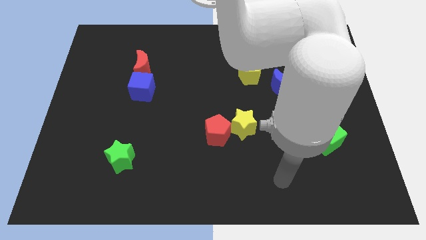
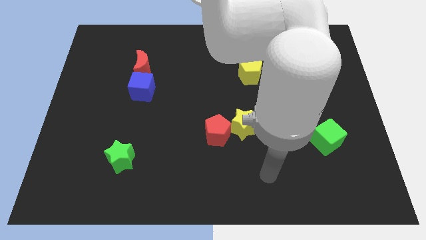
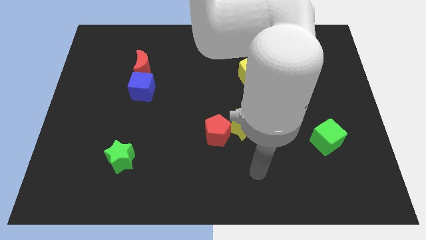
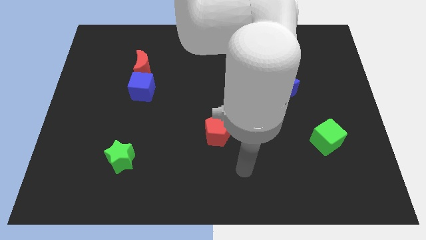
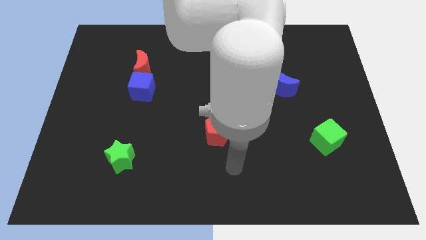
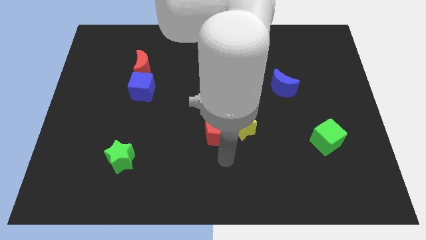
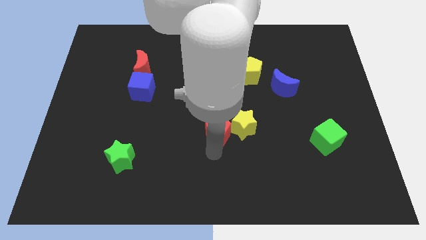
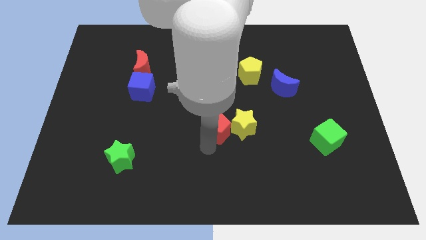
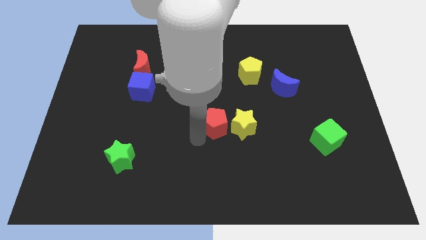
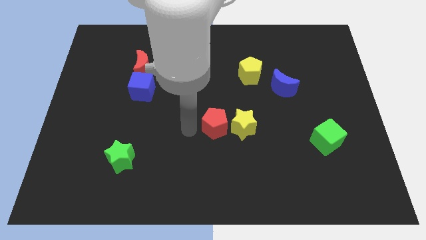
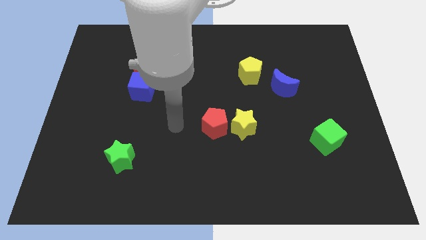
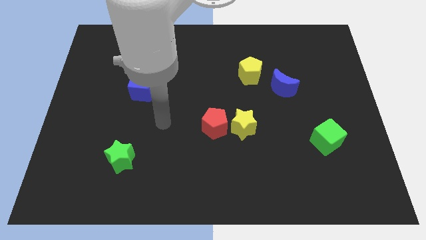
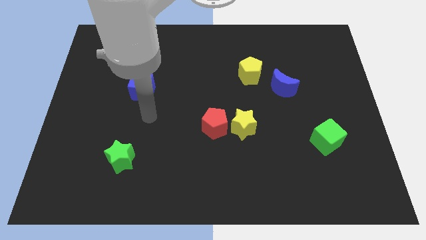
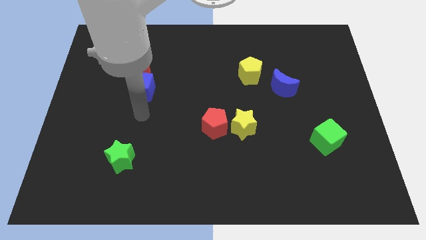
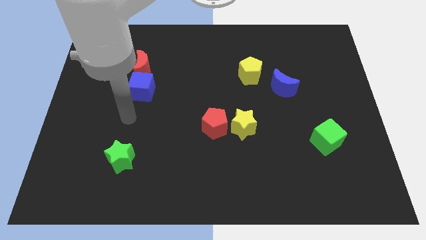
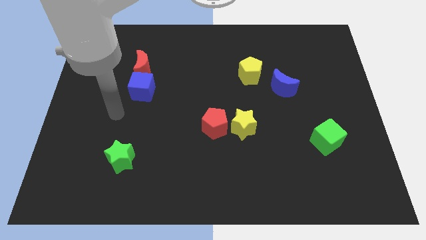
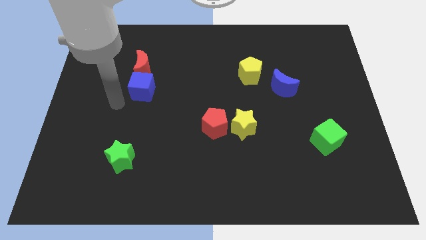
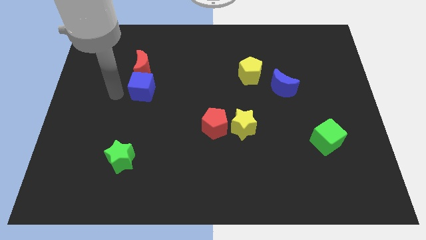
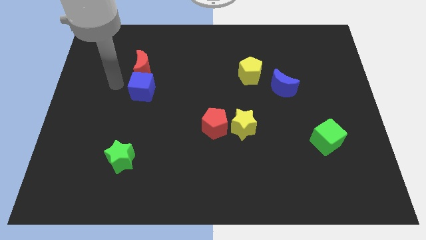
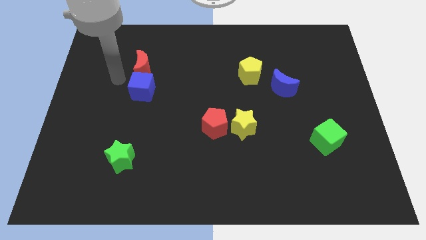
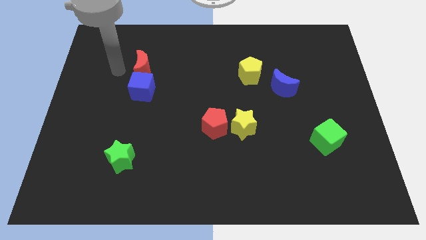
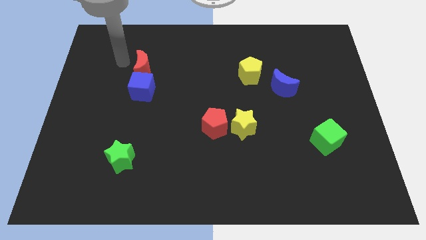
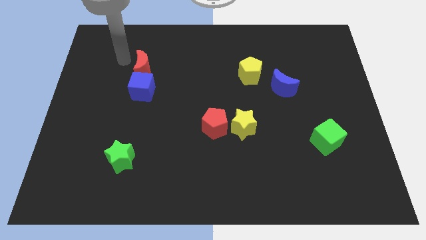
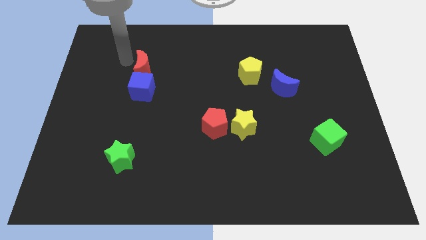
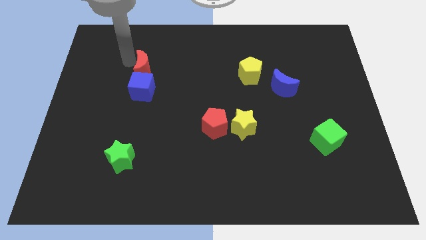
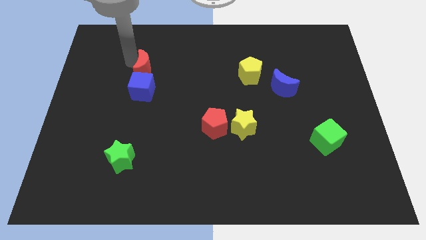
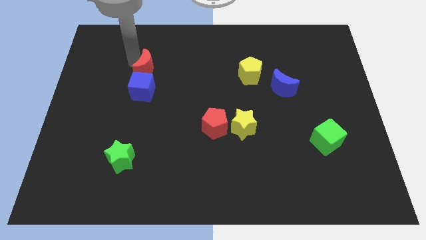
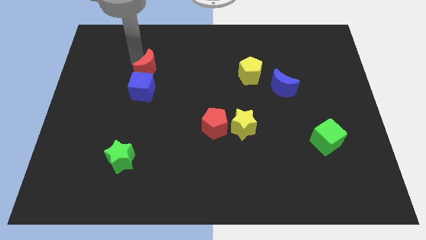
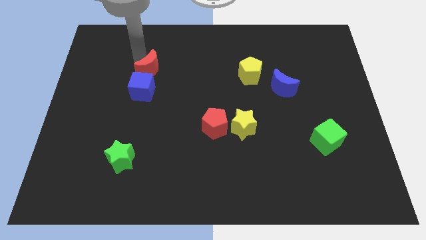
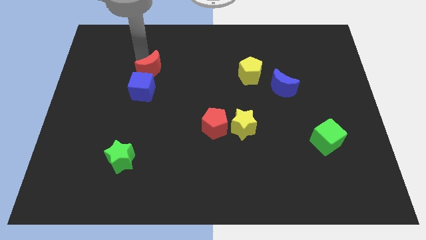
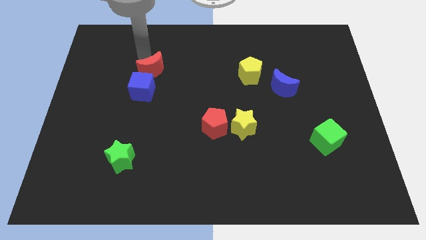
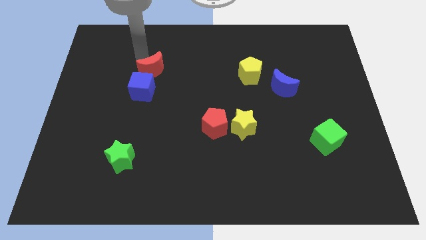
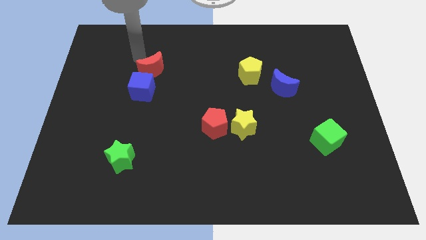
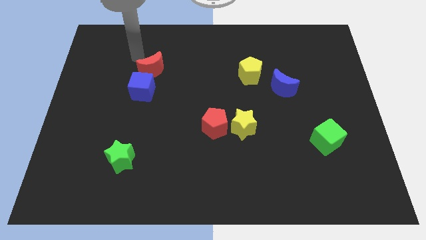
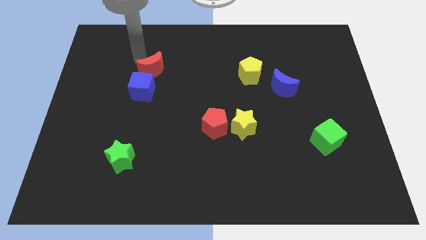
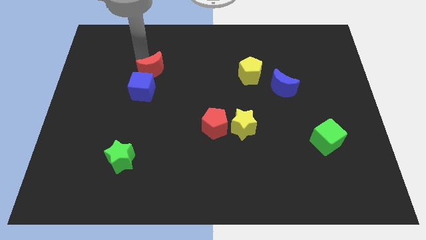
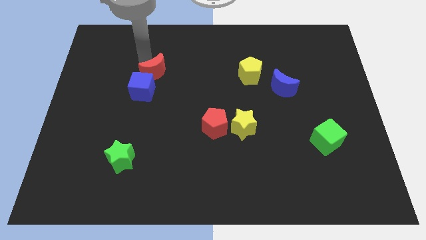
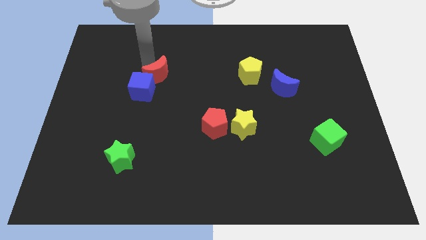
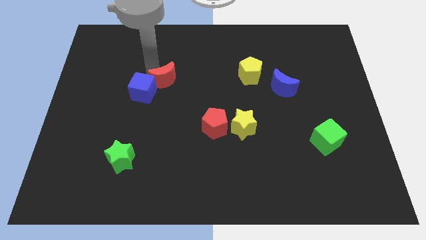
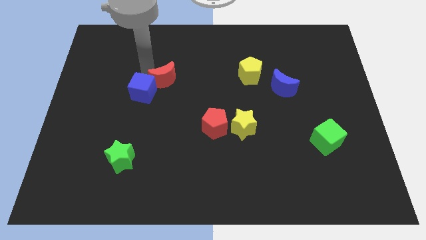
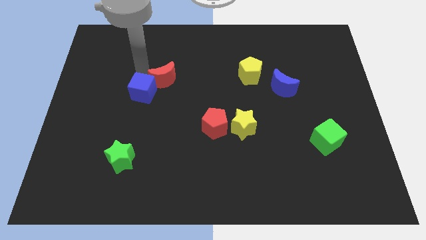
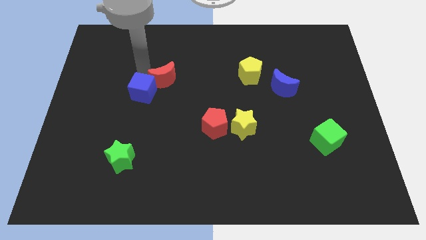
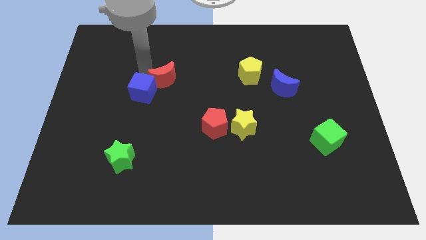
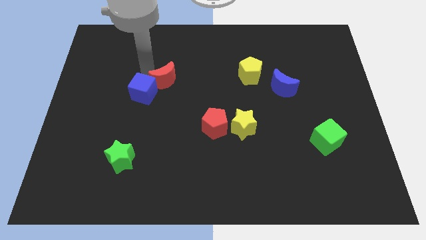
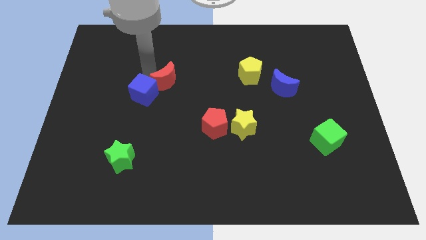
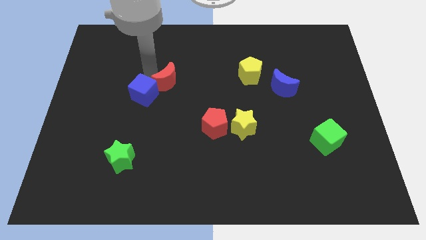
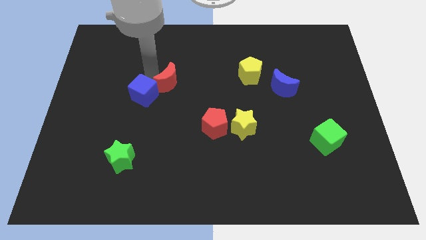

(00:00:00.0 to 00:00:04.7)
move the red moon to the middle of the board

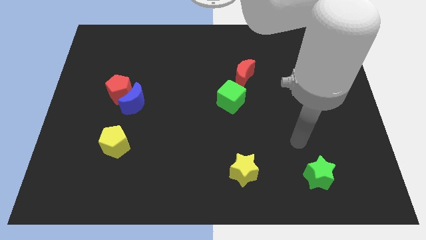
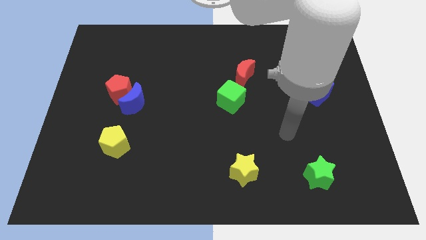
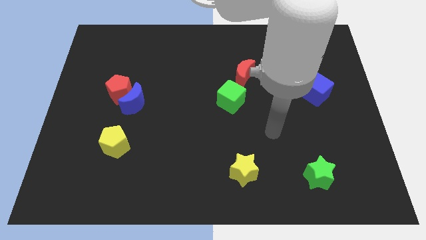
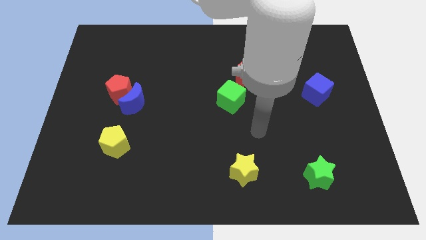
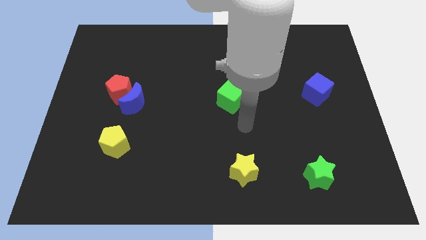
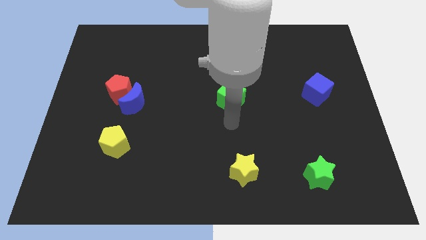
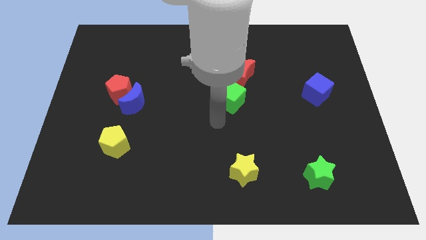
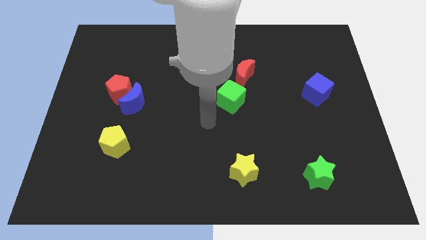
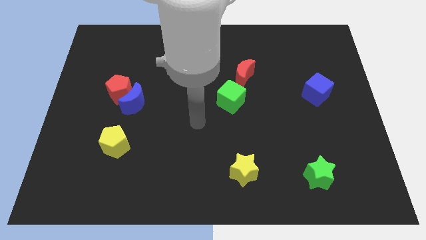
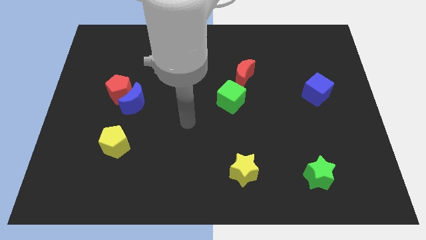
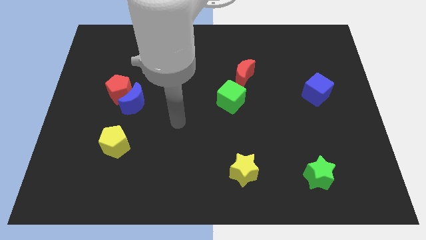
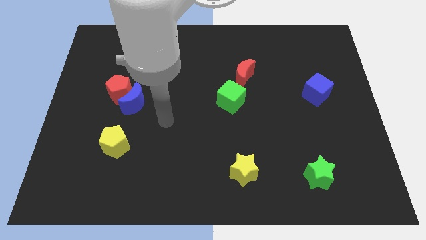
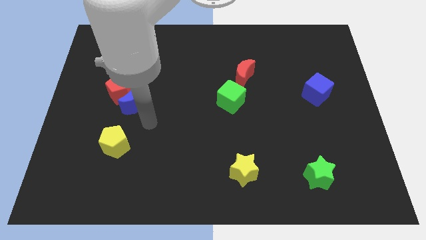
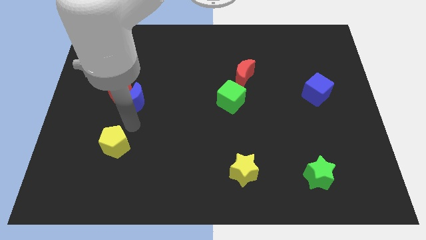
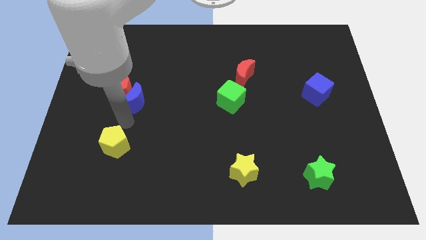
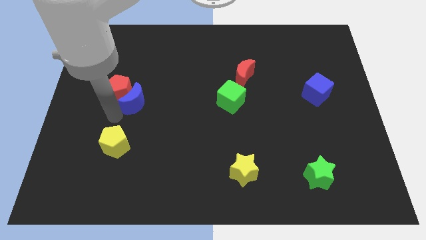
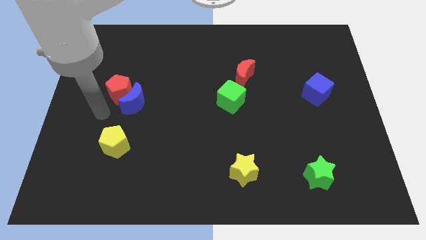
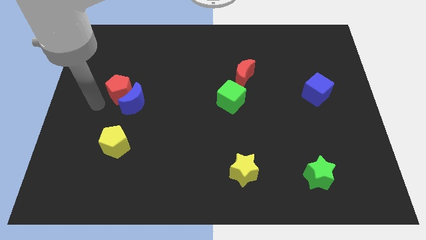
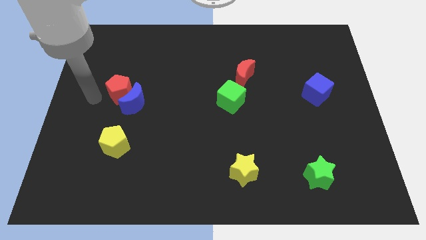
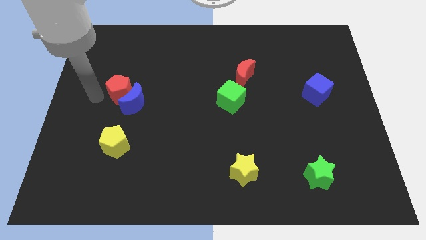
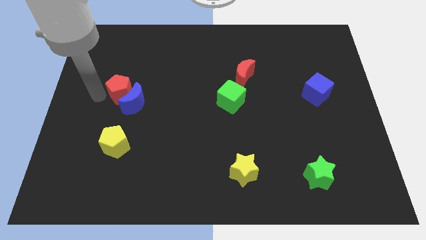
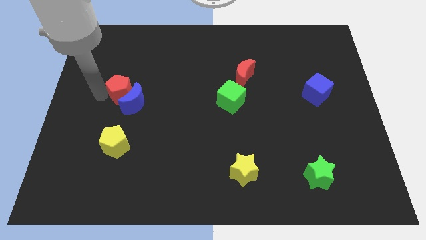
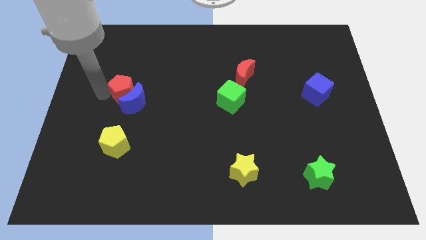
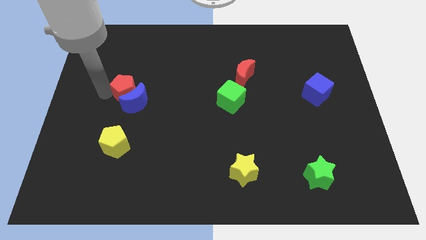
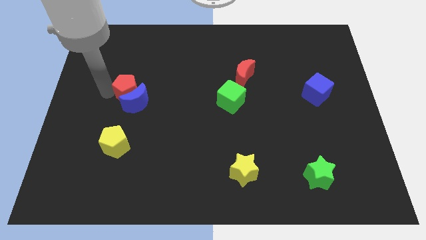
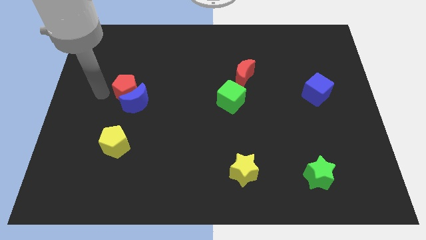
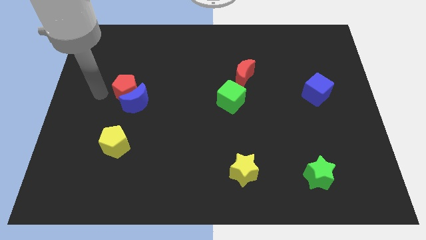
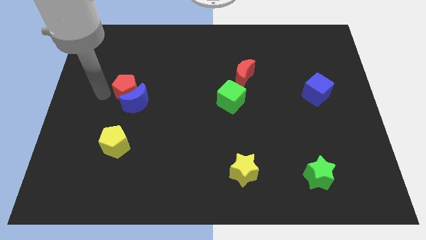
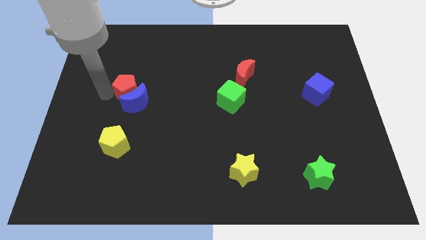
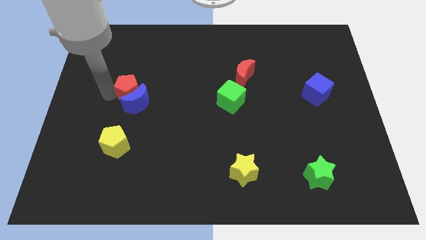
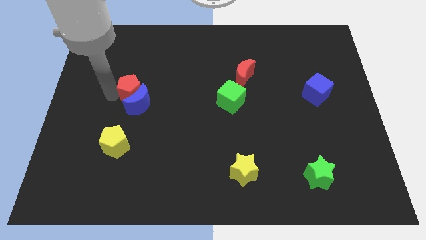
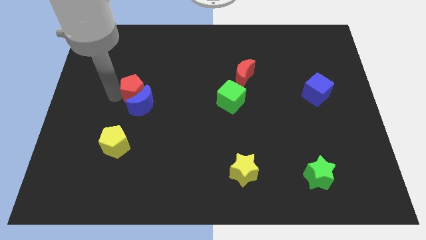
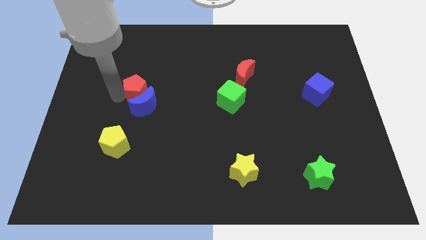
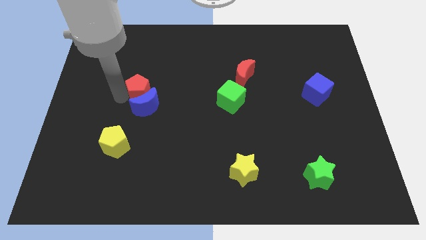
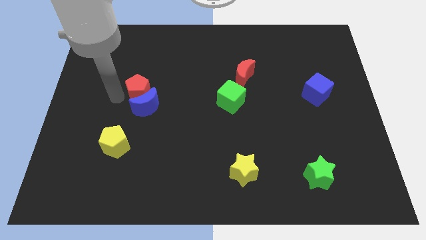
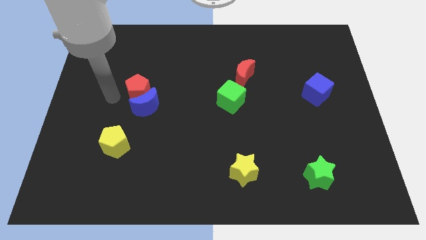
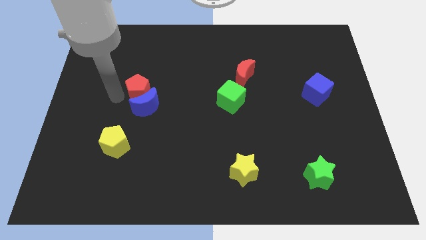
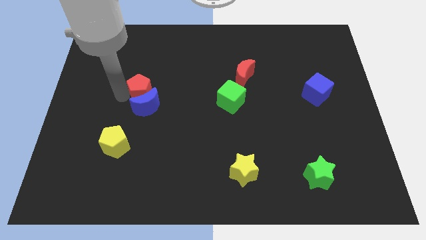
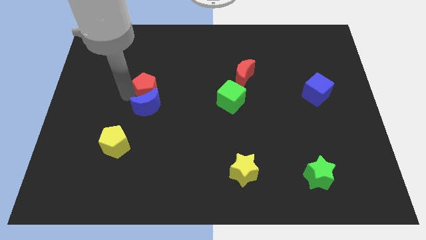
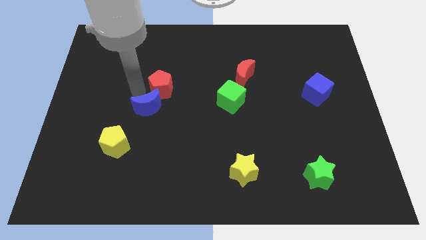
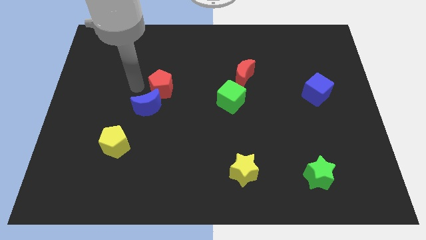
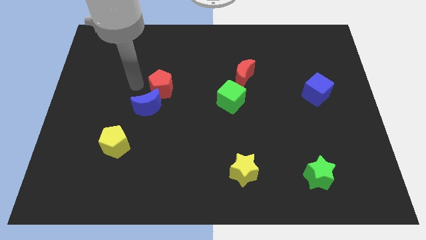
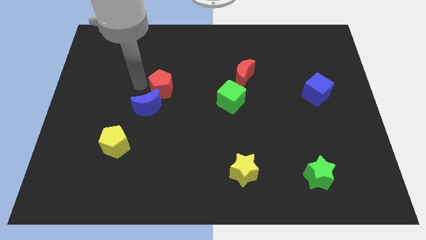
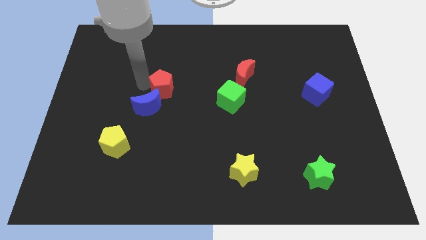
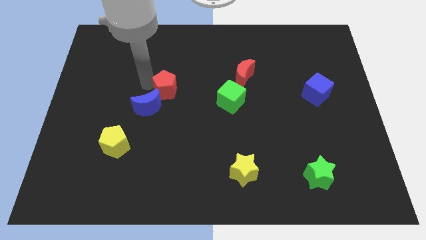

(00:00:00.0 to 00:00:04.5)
put the red pentagon to the center
